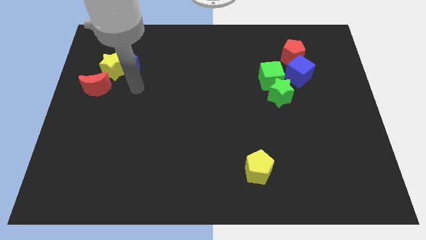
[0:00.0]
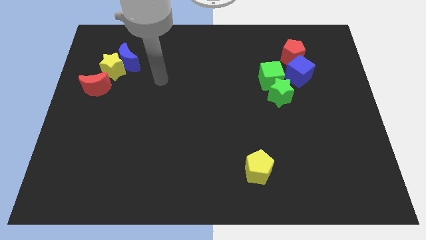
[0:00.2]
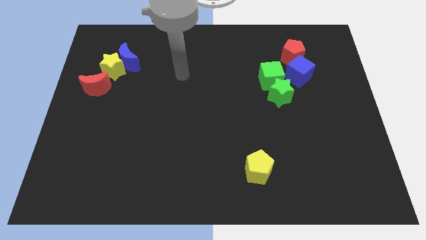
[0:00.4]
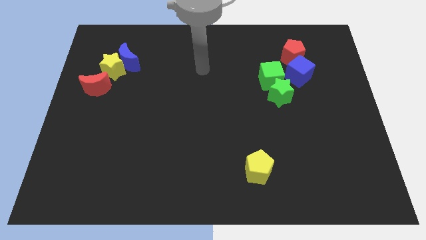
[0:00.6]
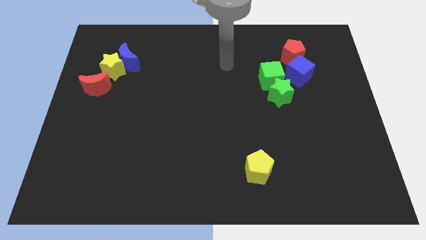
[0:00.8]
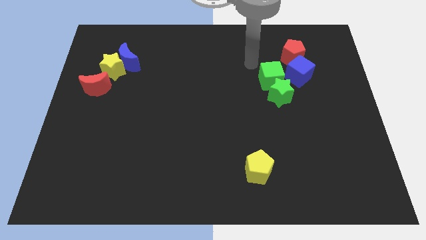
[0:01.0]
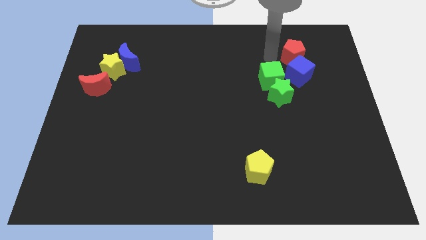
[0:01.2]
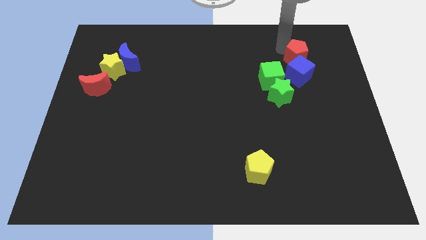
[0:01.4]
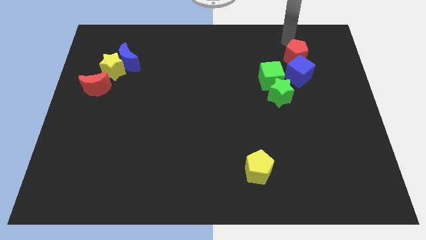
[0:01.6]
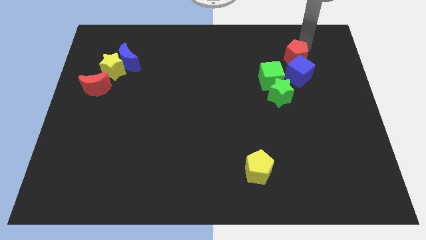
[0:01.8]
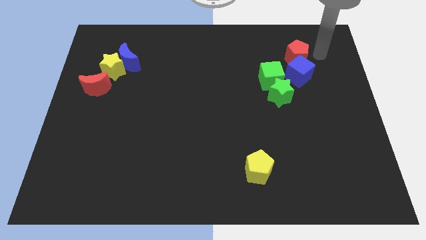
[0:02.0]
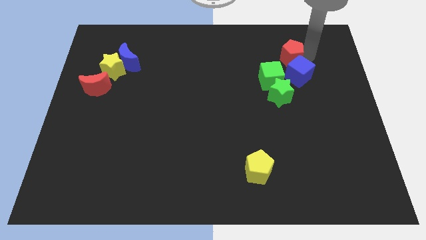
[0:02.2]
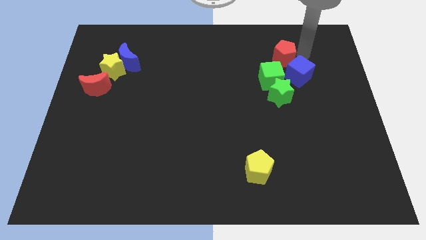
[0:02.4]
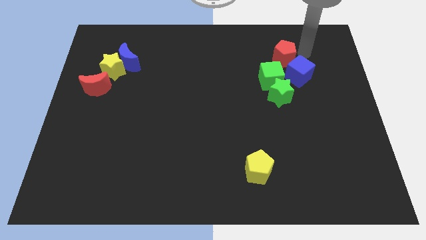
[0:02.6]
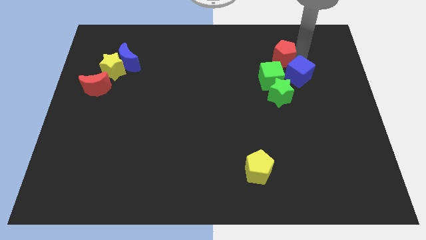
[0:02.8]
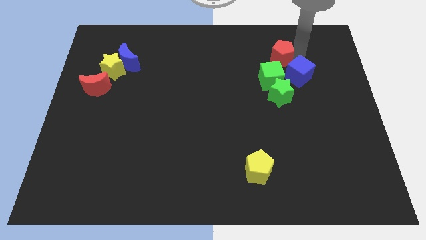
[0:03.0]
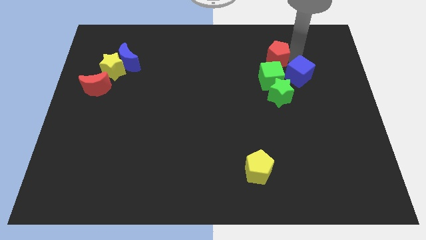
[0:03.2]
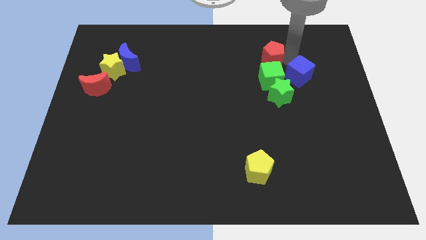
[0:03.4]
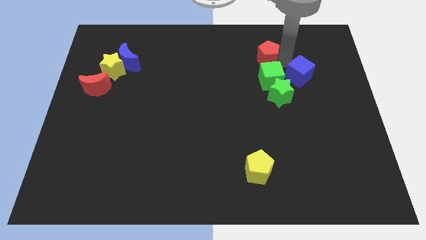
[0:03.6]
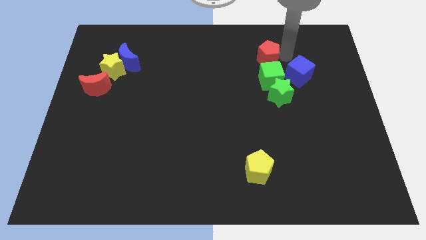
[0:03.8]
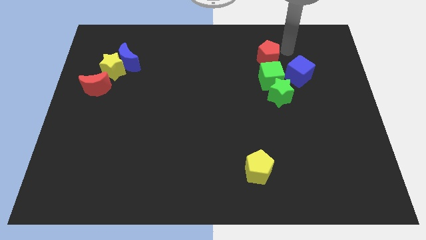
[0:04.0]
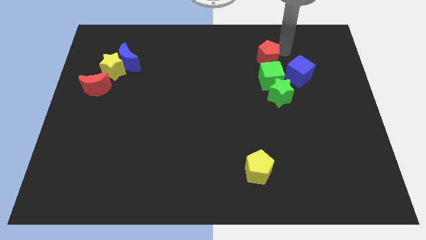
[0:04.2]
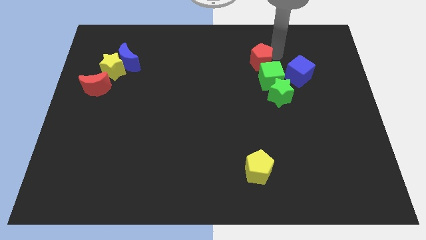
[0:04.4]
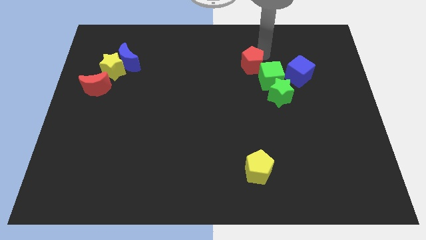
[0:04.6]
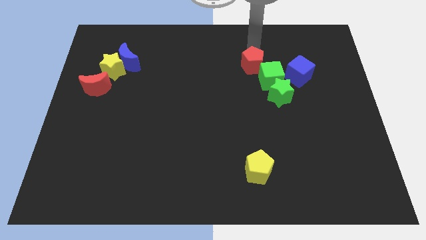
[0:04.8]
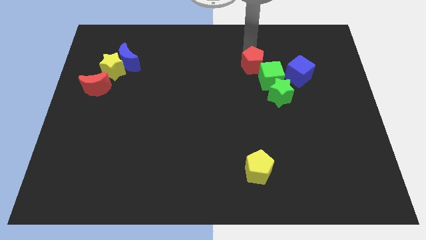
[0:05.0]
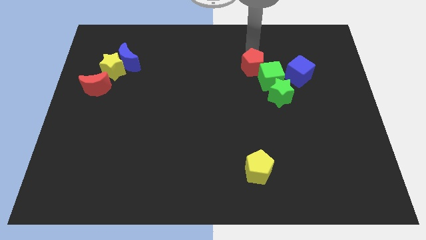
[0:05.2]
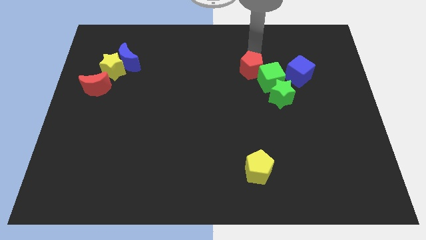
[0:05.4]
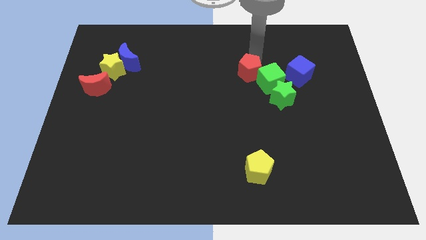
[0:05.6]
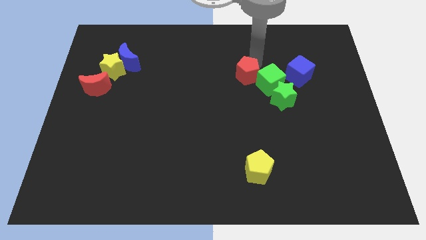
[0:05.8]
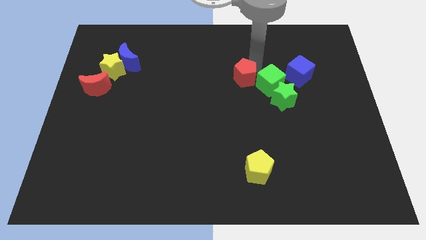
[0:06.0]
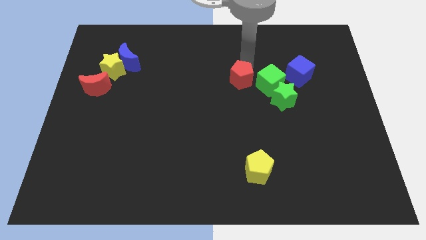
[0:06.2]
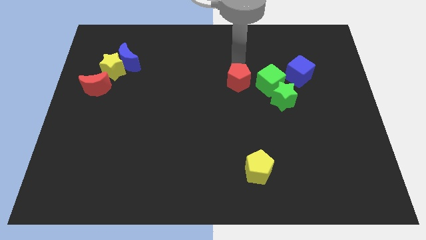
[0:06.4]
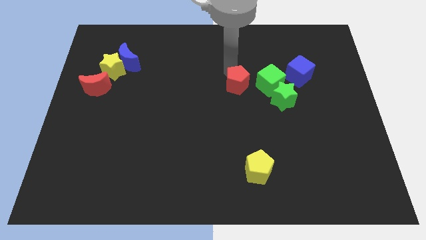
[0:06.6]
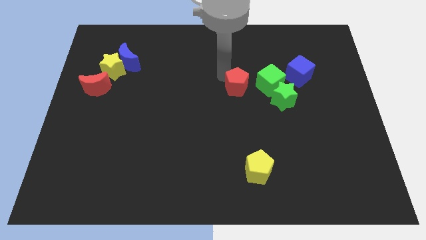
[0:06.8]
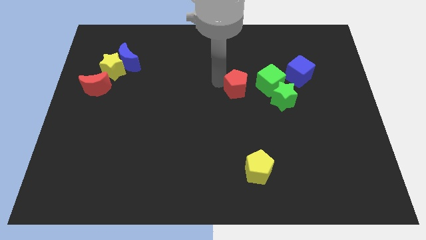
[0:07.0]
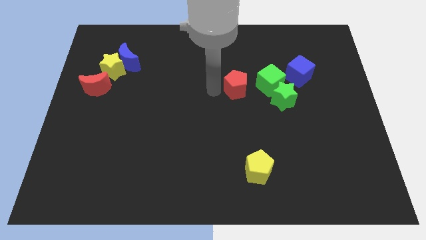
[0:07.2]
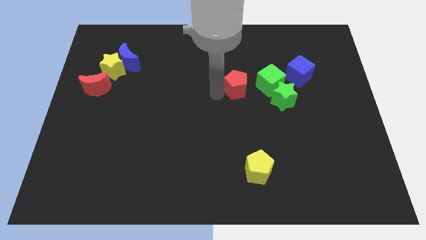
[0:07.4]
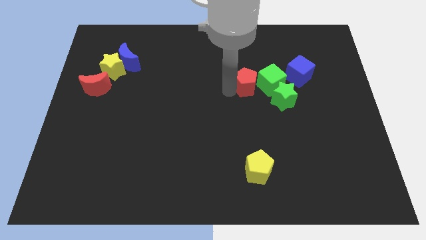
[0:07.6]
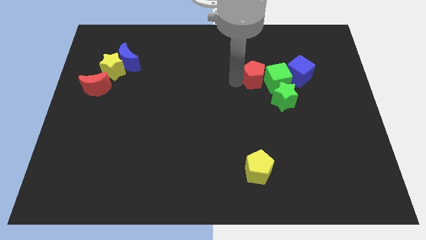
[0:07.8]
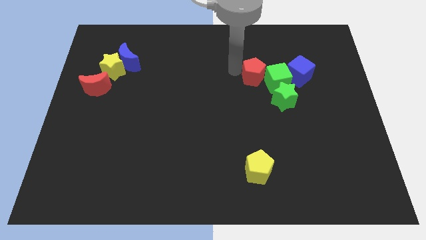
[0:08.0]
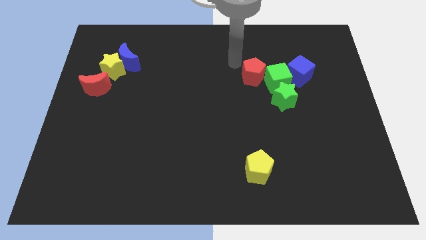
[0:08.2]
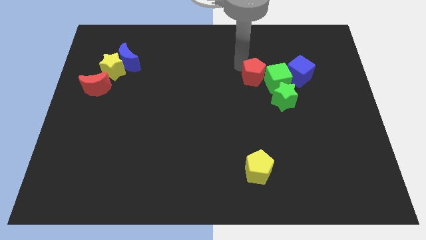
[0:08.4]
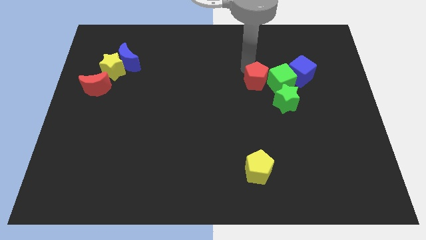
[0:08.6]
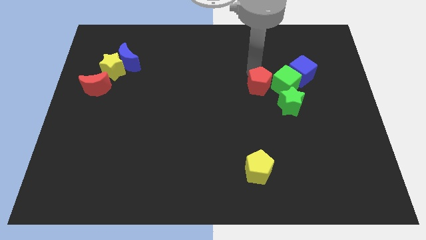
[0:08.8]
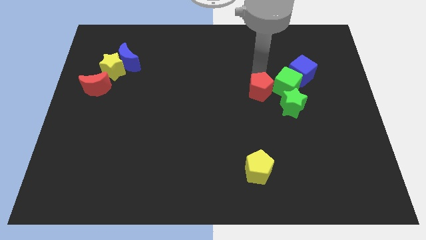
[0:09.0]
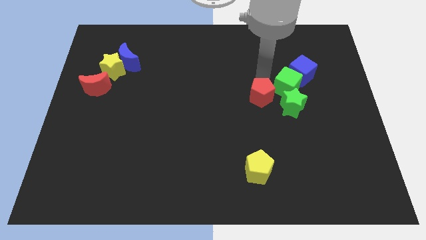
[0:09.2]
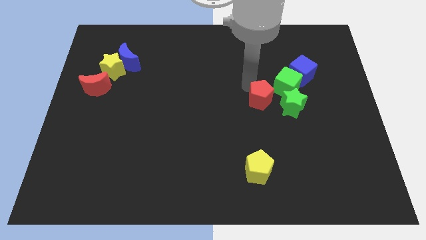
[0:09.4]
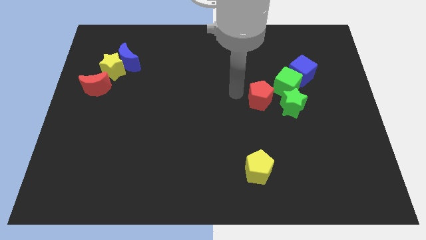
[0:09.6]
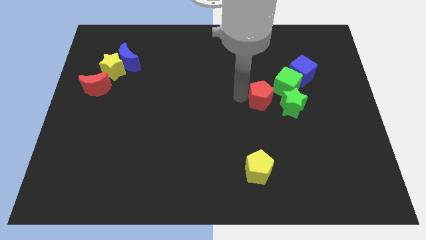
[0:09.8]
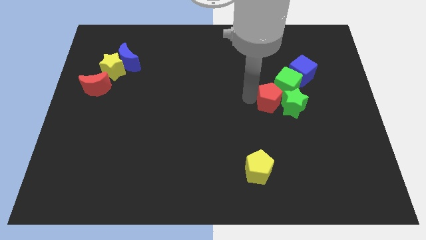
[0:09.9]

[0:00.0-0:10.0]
put the red pentagon next to the green star

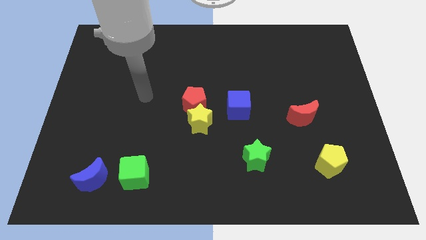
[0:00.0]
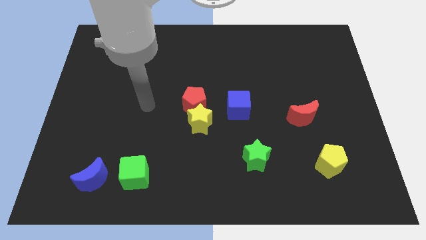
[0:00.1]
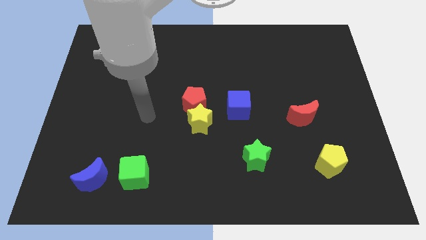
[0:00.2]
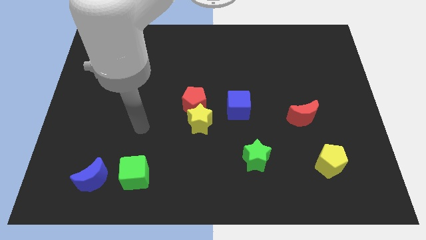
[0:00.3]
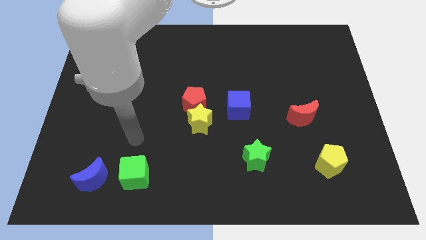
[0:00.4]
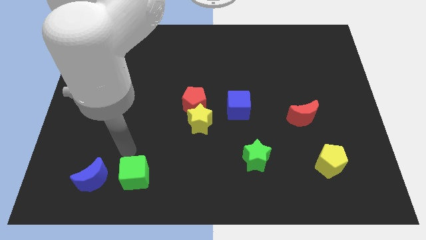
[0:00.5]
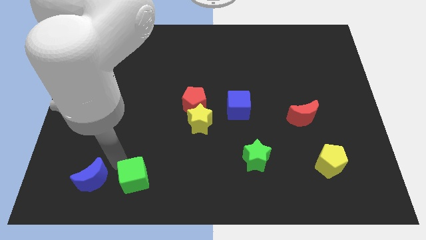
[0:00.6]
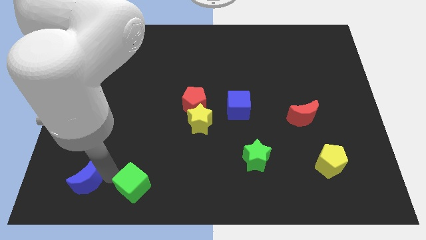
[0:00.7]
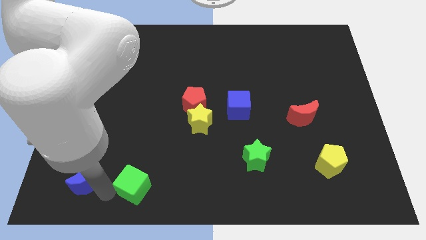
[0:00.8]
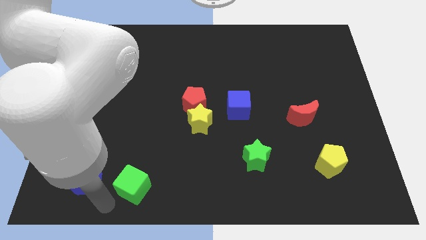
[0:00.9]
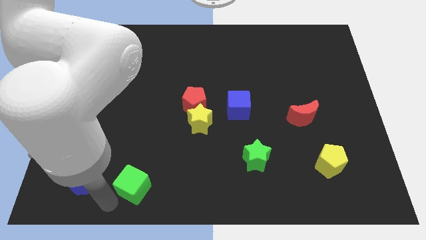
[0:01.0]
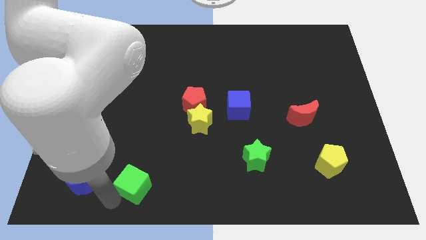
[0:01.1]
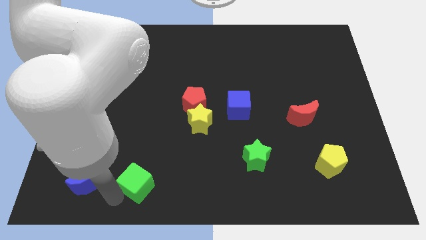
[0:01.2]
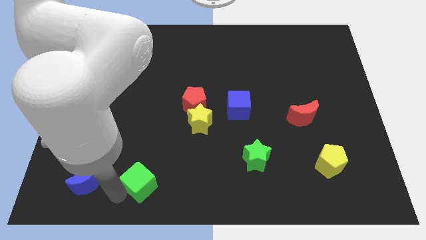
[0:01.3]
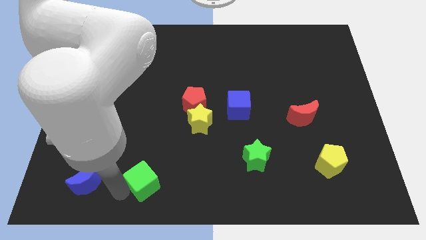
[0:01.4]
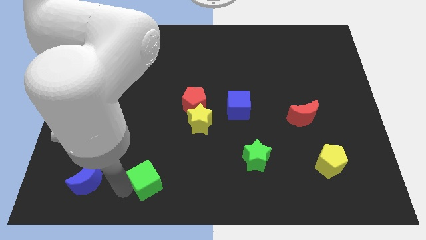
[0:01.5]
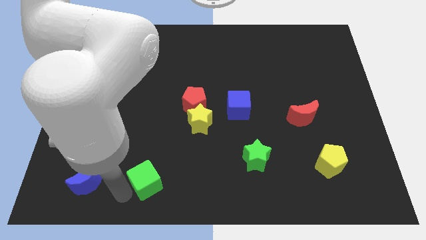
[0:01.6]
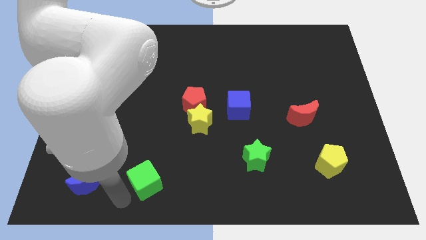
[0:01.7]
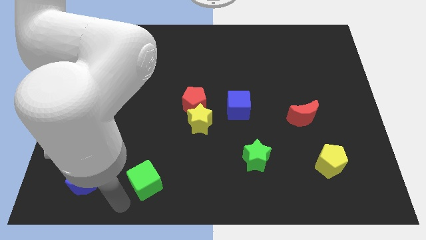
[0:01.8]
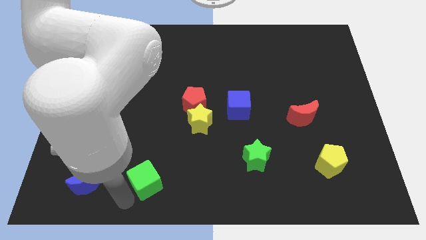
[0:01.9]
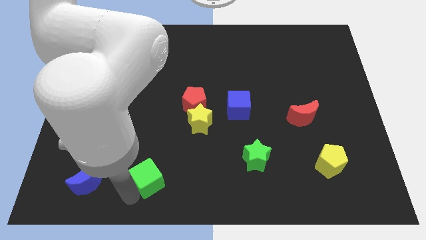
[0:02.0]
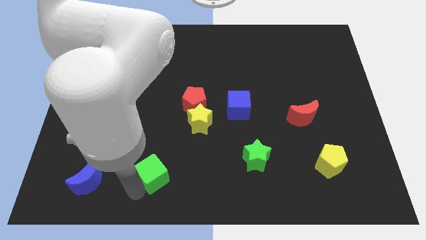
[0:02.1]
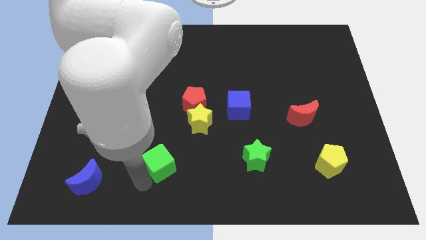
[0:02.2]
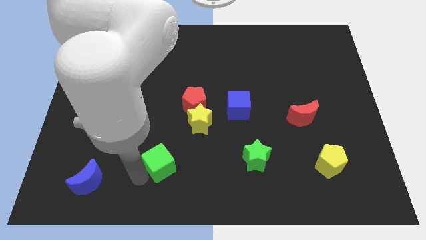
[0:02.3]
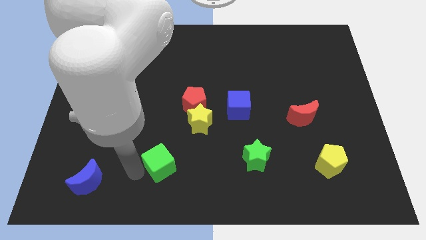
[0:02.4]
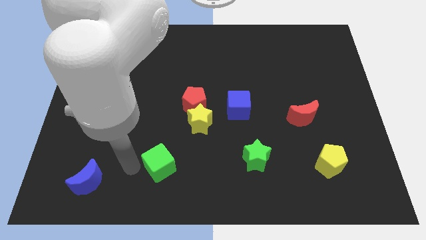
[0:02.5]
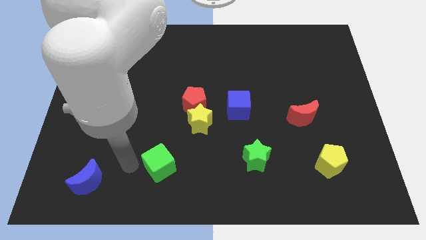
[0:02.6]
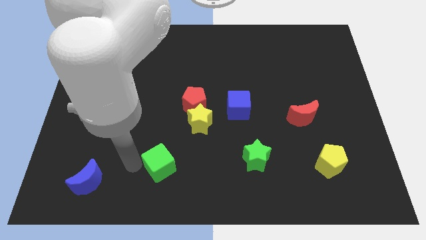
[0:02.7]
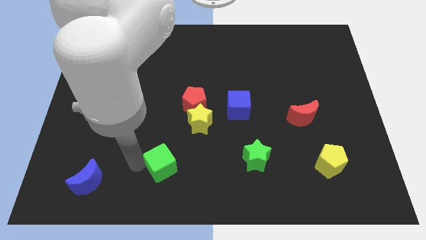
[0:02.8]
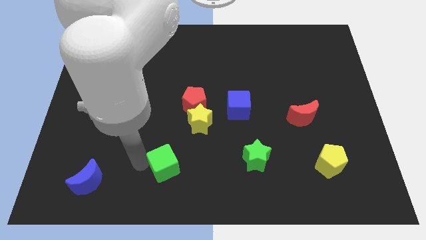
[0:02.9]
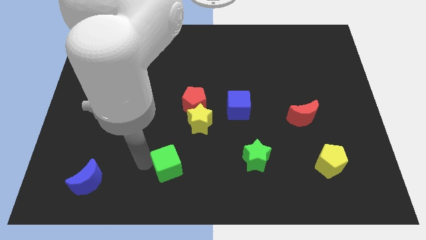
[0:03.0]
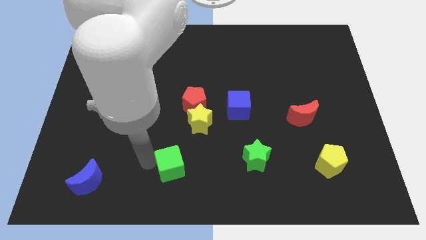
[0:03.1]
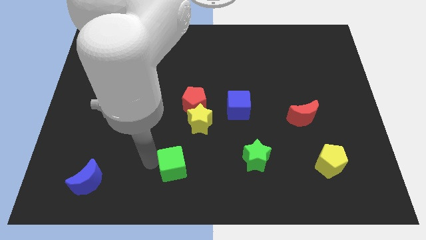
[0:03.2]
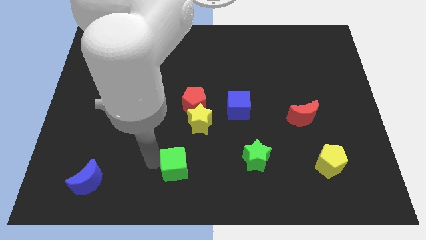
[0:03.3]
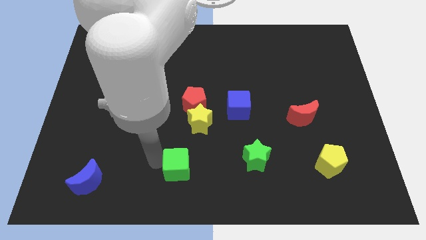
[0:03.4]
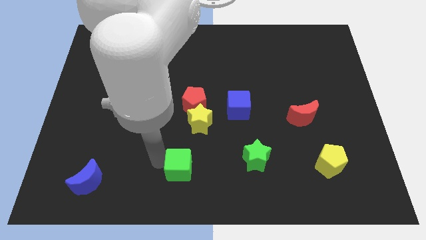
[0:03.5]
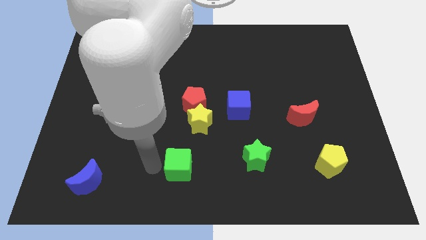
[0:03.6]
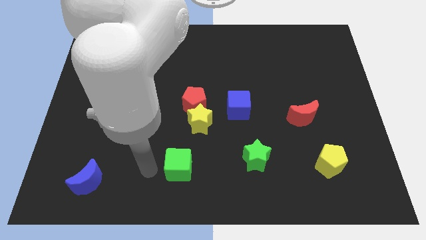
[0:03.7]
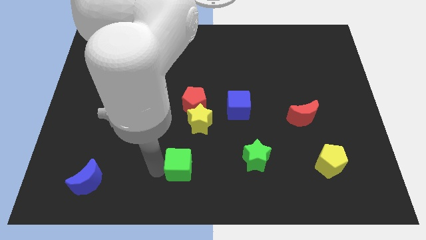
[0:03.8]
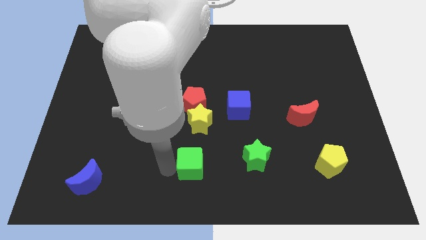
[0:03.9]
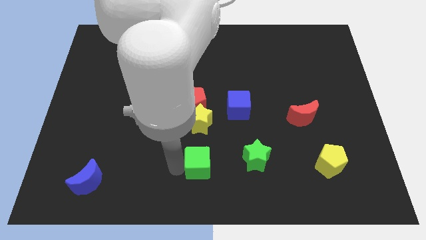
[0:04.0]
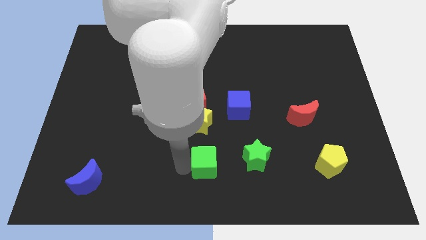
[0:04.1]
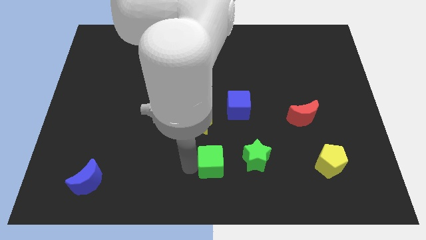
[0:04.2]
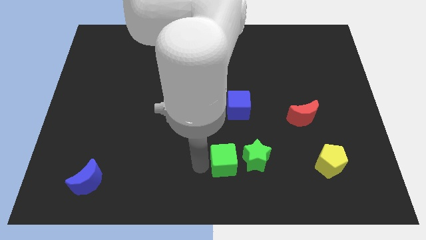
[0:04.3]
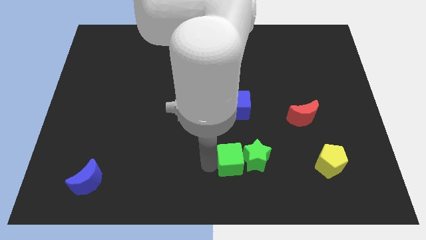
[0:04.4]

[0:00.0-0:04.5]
put the green cube towards the green star
